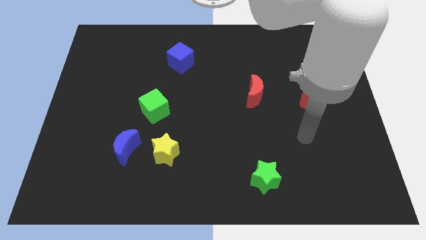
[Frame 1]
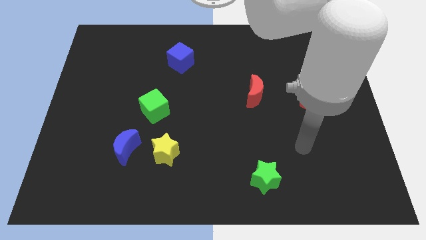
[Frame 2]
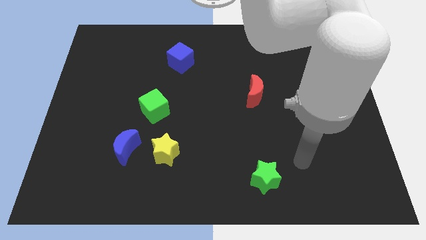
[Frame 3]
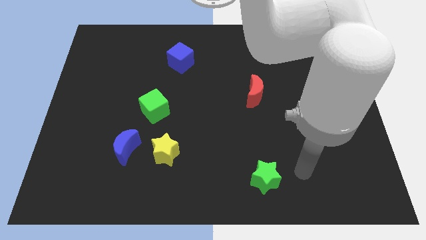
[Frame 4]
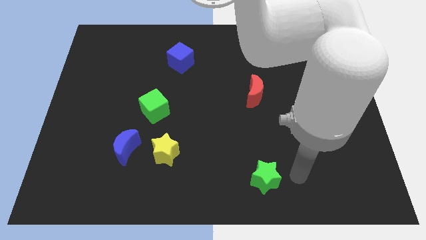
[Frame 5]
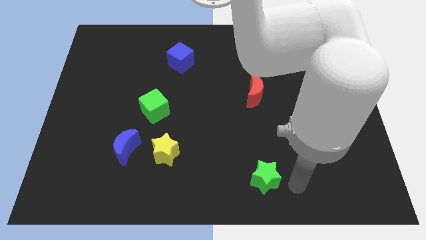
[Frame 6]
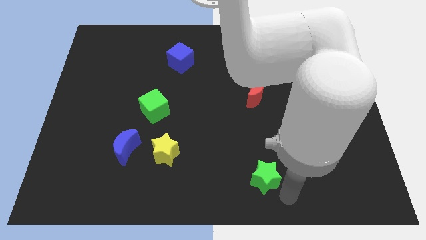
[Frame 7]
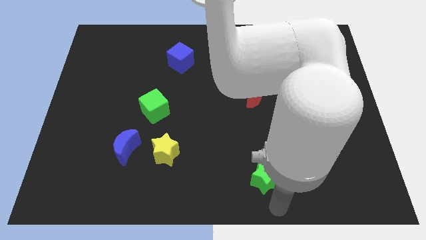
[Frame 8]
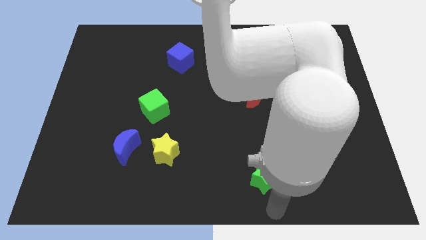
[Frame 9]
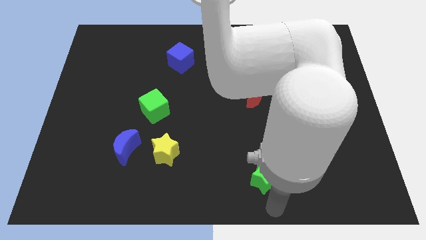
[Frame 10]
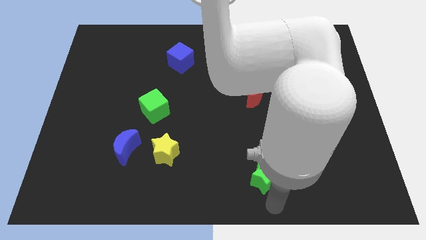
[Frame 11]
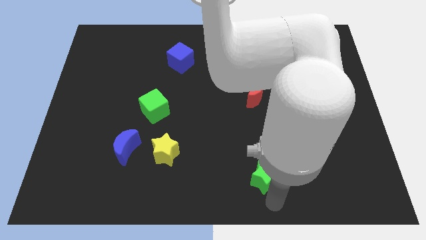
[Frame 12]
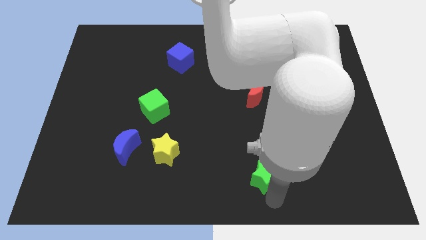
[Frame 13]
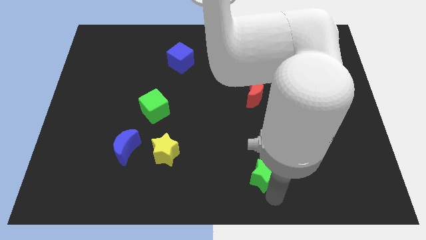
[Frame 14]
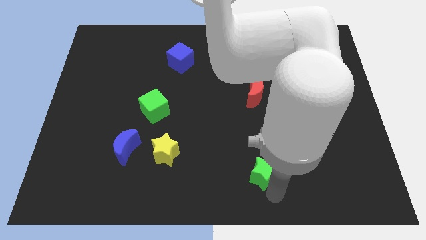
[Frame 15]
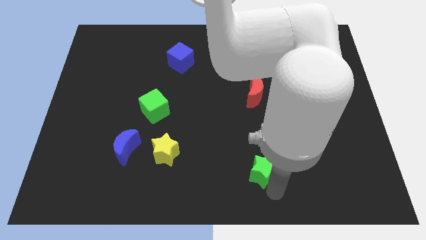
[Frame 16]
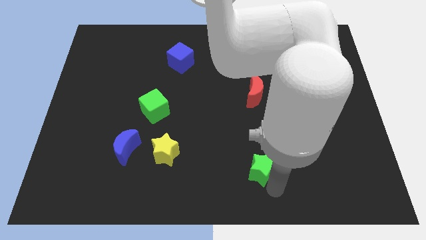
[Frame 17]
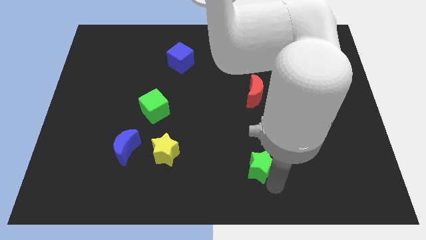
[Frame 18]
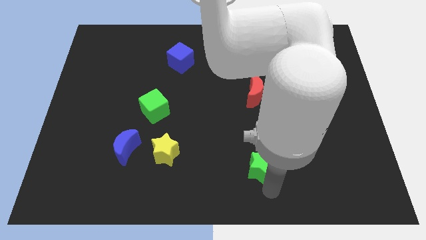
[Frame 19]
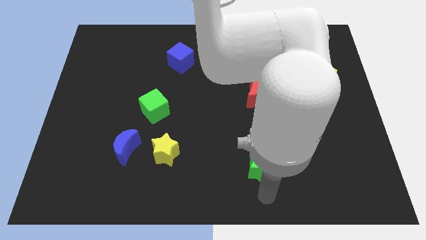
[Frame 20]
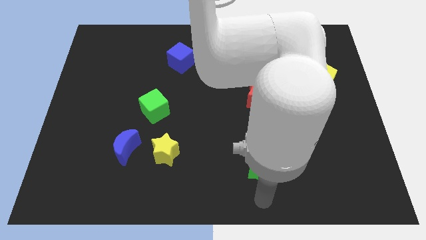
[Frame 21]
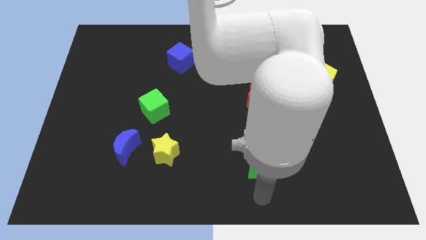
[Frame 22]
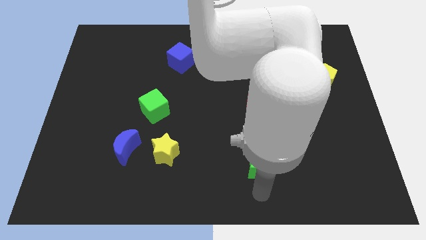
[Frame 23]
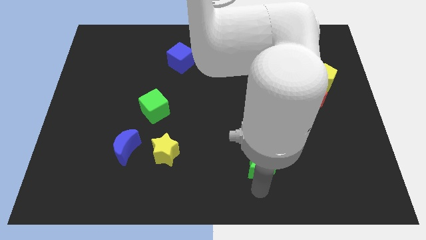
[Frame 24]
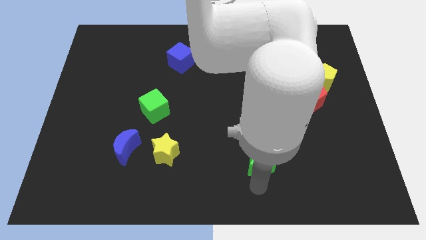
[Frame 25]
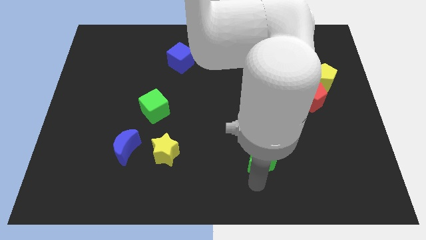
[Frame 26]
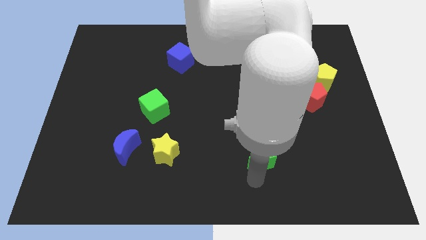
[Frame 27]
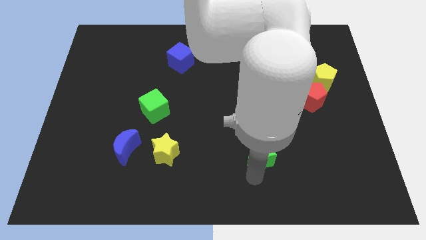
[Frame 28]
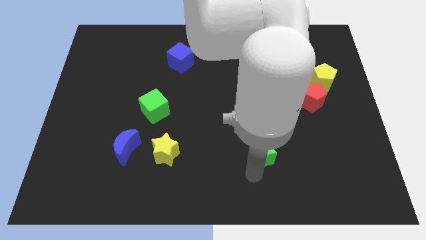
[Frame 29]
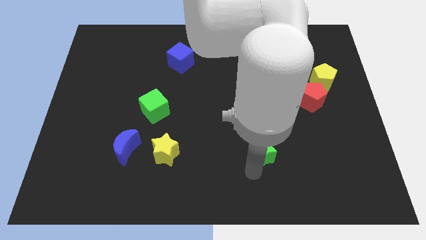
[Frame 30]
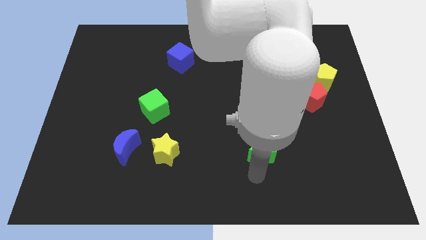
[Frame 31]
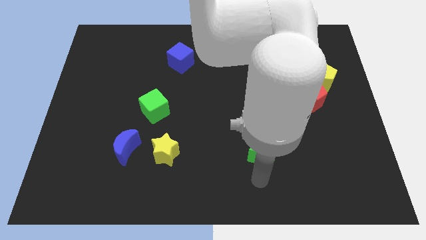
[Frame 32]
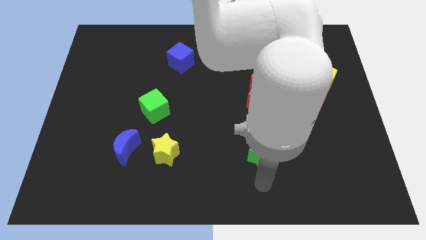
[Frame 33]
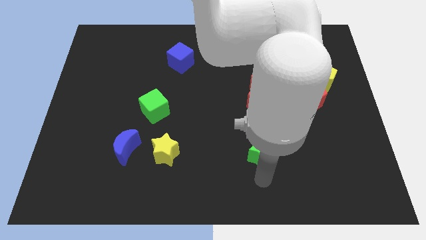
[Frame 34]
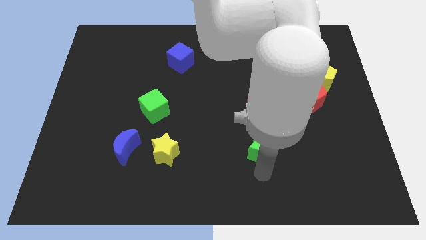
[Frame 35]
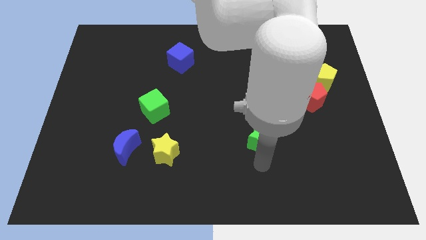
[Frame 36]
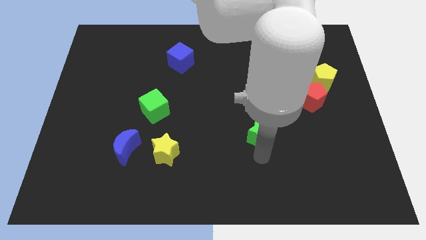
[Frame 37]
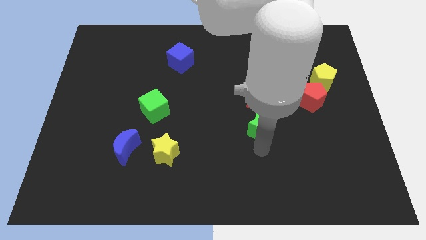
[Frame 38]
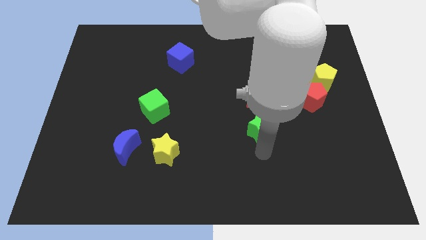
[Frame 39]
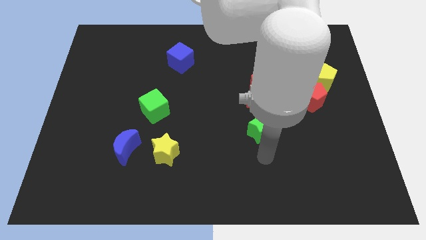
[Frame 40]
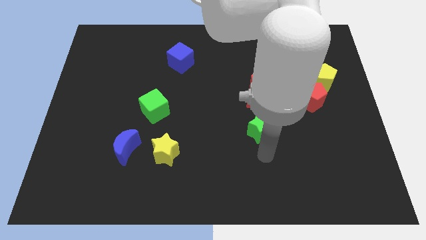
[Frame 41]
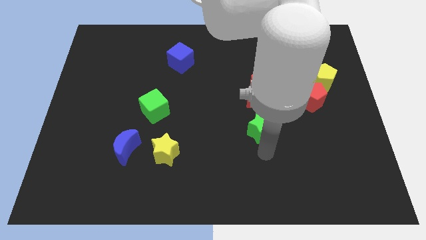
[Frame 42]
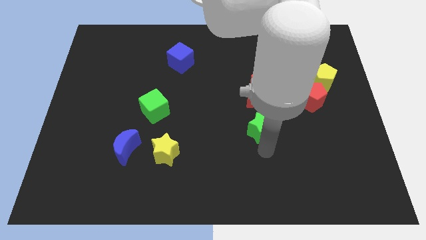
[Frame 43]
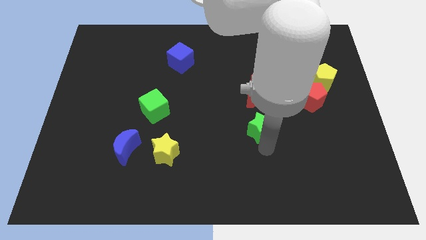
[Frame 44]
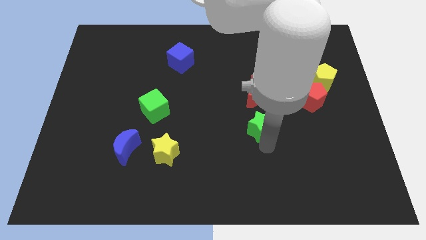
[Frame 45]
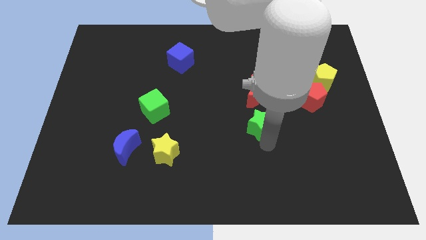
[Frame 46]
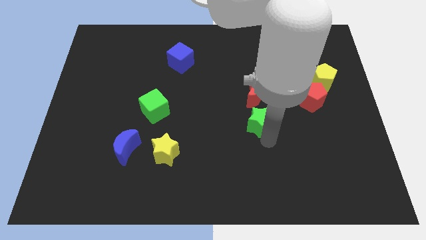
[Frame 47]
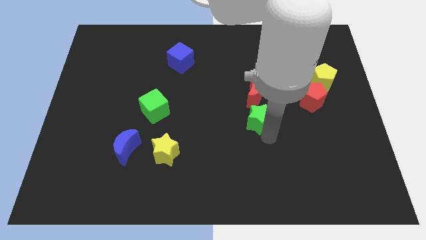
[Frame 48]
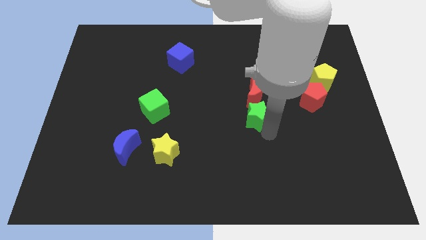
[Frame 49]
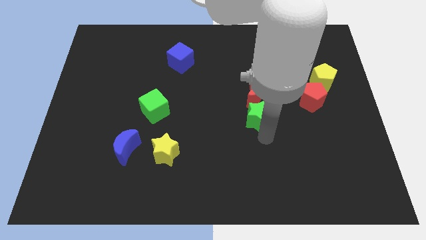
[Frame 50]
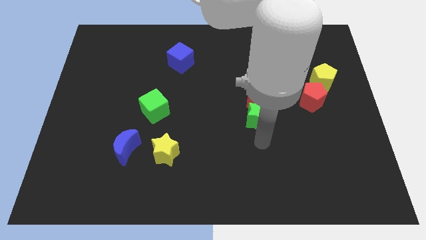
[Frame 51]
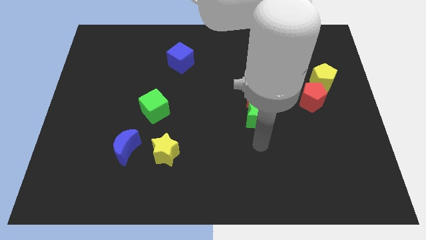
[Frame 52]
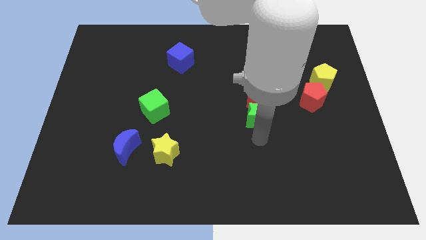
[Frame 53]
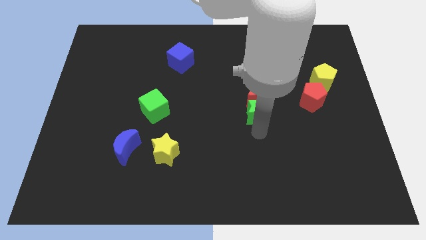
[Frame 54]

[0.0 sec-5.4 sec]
slide the green star next to the red moon

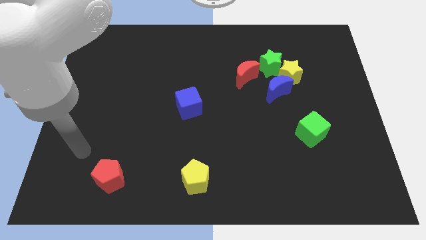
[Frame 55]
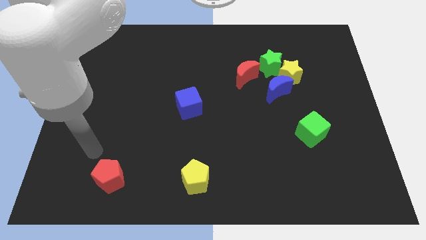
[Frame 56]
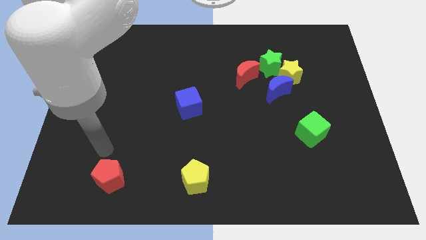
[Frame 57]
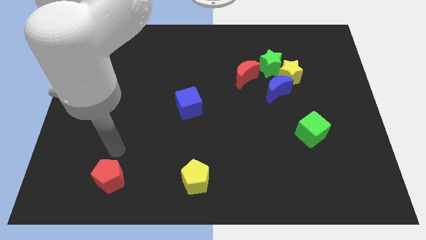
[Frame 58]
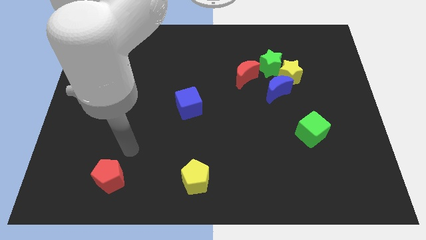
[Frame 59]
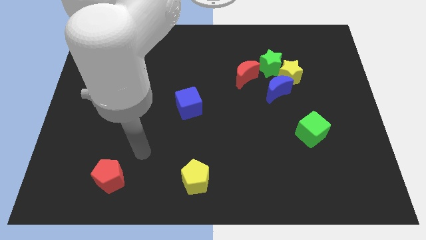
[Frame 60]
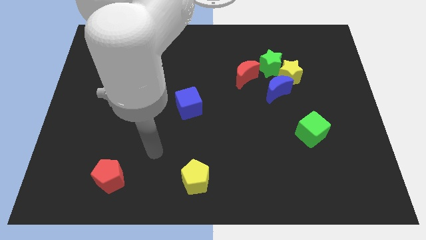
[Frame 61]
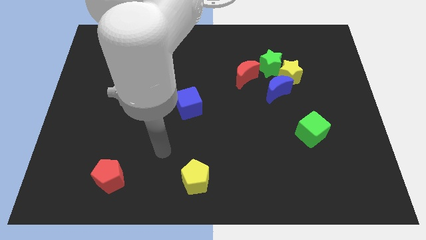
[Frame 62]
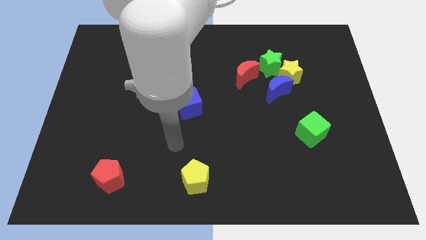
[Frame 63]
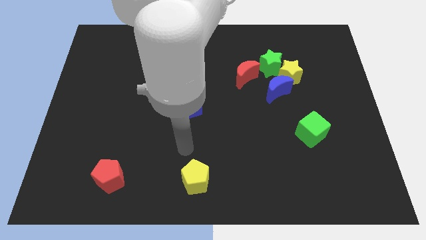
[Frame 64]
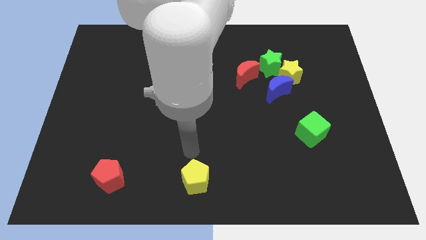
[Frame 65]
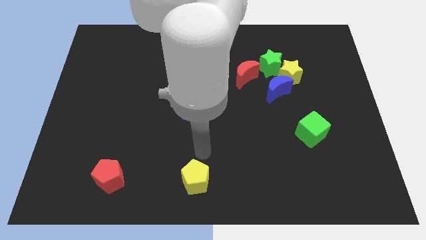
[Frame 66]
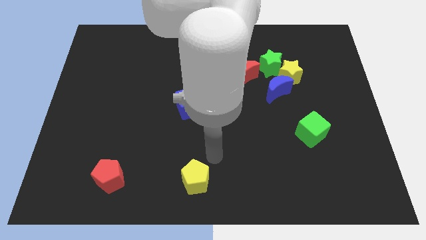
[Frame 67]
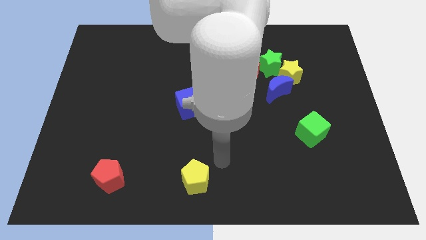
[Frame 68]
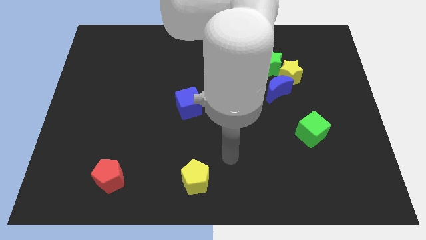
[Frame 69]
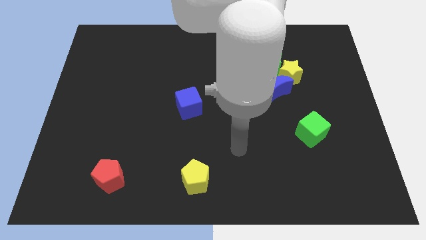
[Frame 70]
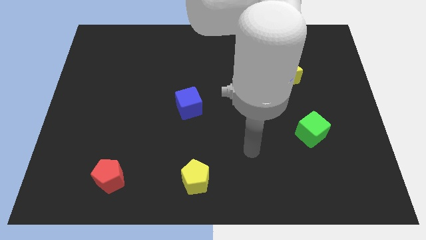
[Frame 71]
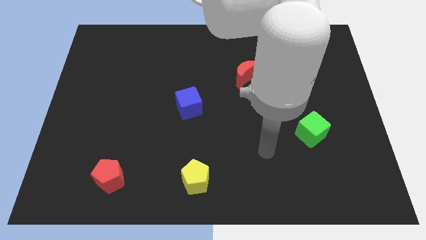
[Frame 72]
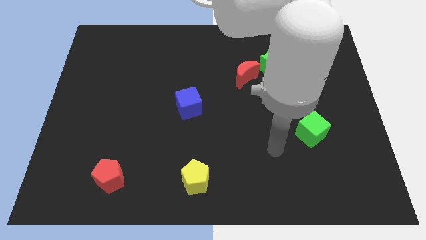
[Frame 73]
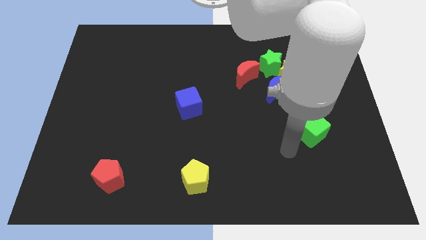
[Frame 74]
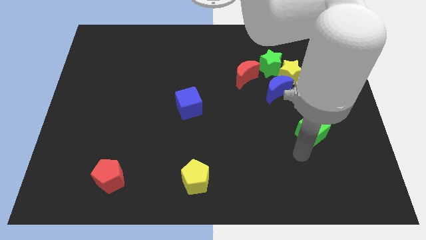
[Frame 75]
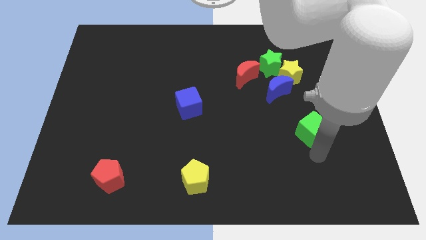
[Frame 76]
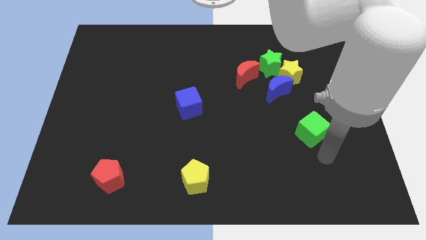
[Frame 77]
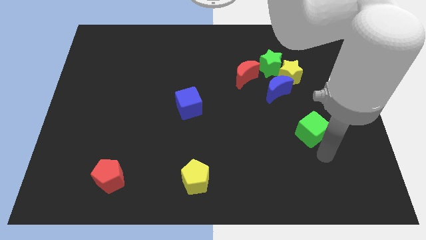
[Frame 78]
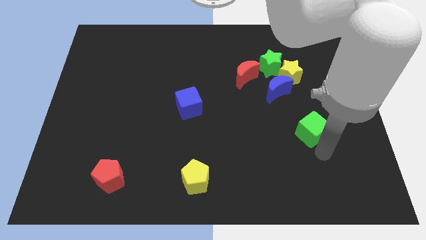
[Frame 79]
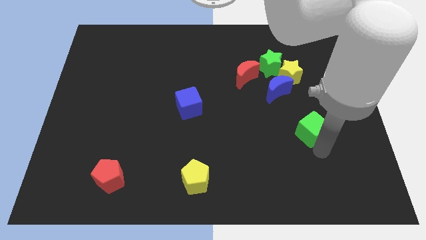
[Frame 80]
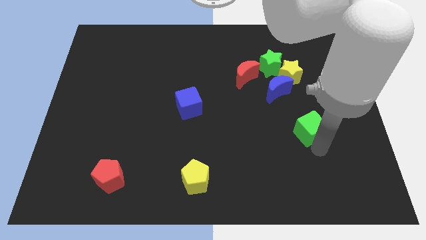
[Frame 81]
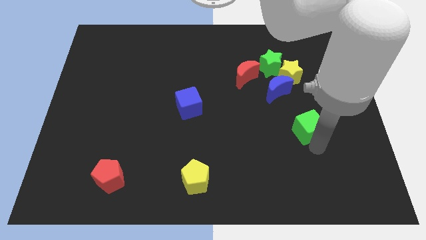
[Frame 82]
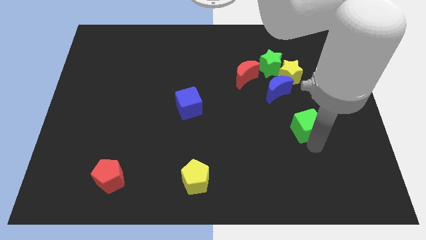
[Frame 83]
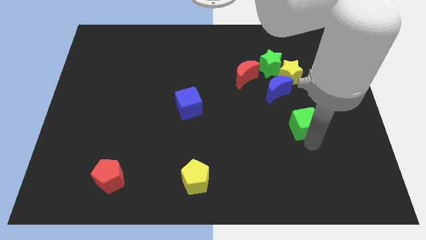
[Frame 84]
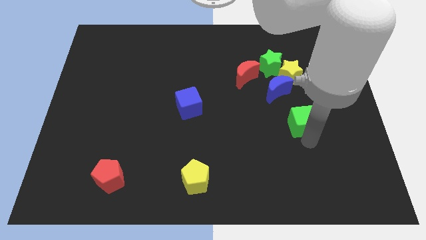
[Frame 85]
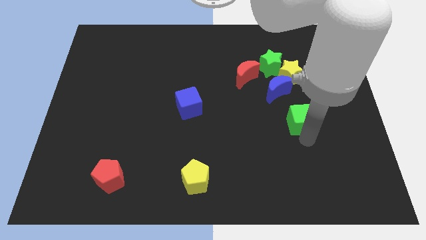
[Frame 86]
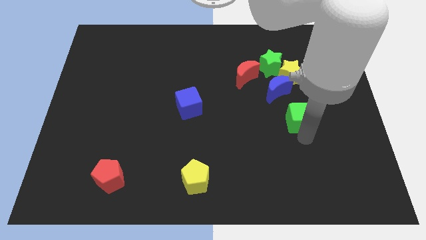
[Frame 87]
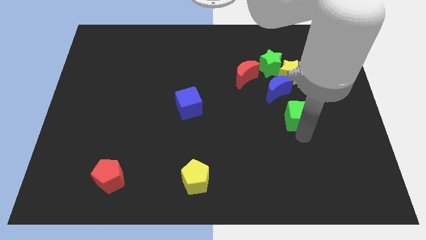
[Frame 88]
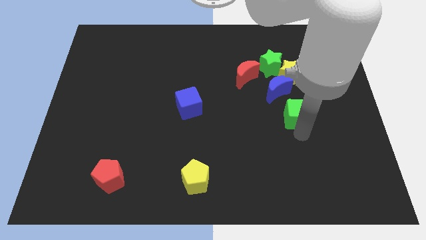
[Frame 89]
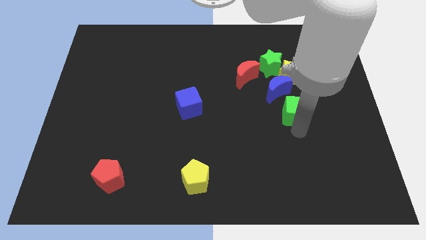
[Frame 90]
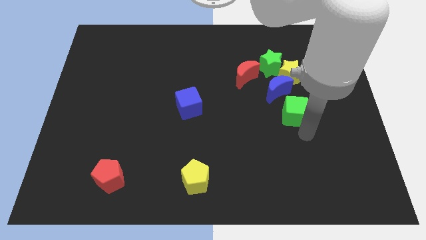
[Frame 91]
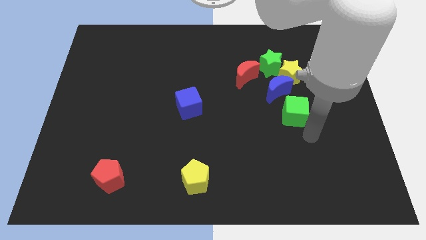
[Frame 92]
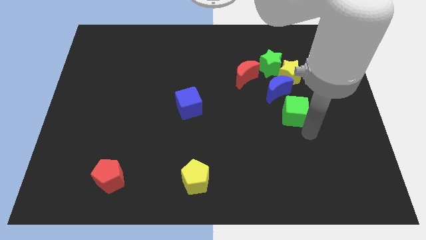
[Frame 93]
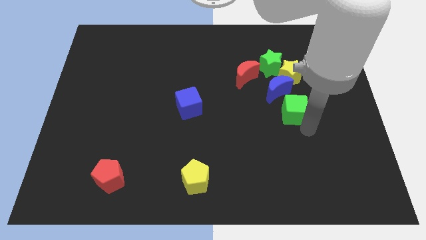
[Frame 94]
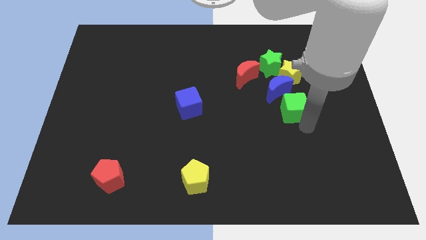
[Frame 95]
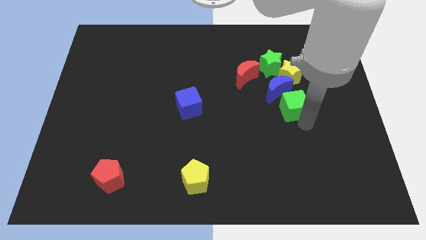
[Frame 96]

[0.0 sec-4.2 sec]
move the green cube towards the blue moon
